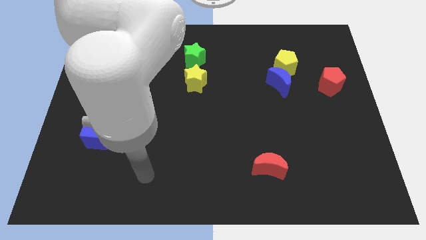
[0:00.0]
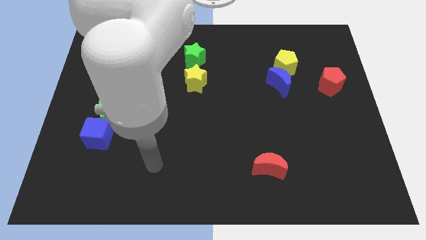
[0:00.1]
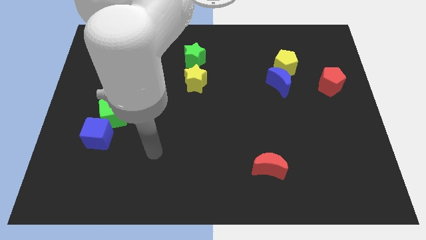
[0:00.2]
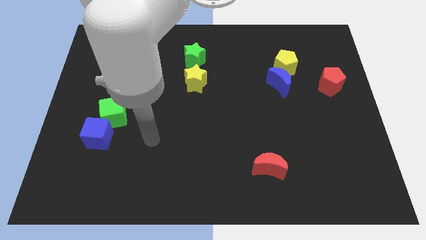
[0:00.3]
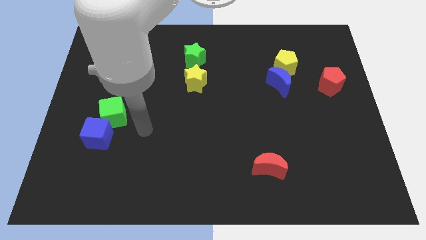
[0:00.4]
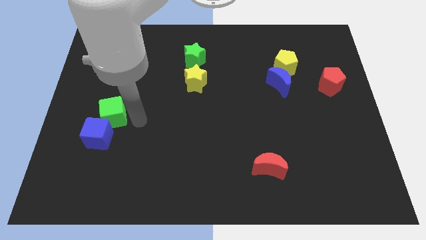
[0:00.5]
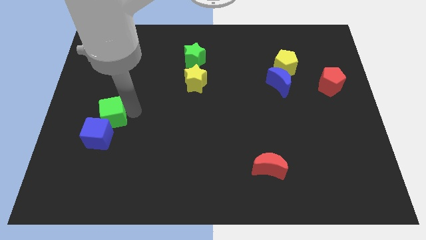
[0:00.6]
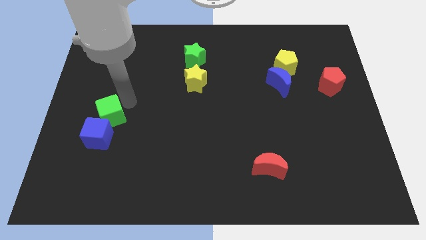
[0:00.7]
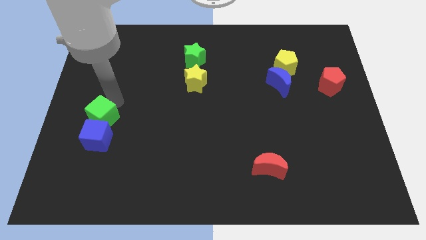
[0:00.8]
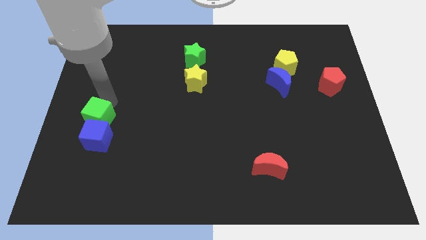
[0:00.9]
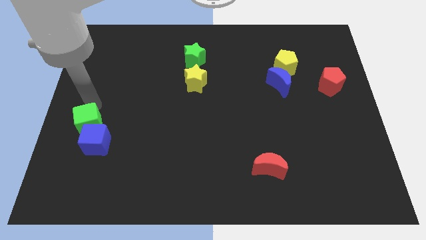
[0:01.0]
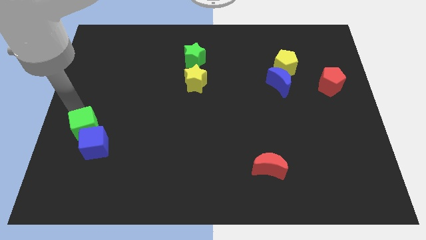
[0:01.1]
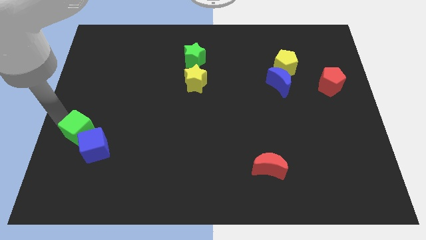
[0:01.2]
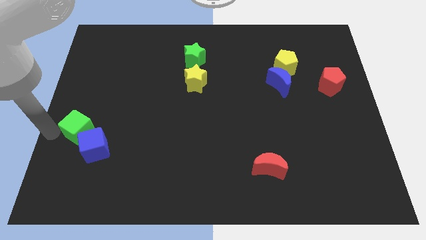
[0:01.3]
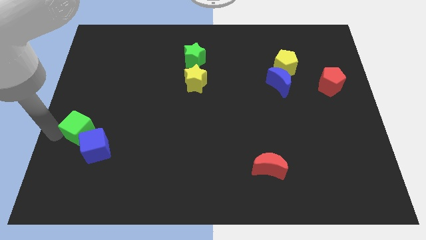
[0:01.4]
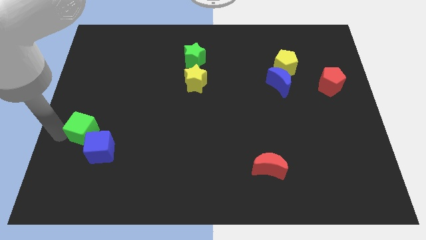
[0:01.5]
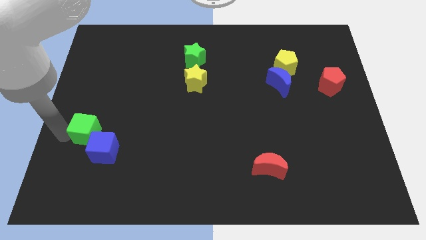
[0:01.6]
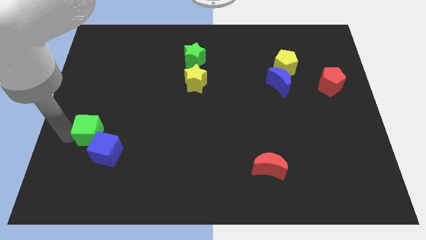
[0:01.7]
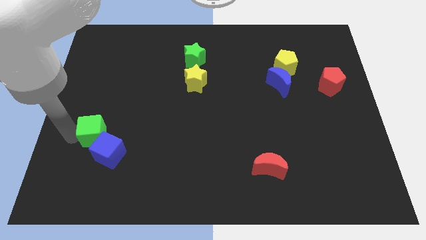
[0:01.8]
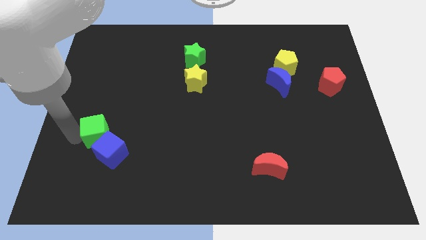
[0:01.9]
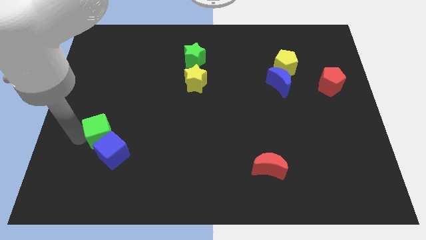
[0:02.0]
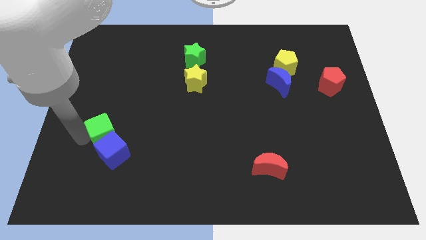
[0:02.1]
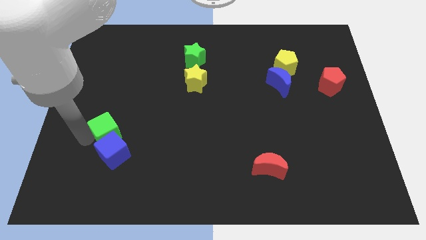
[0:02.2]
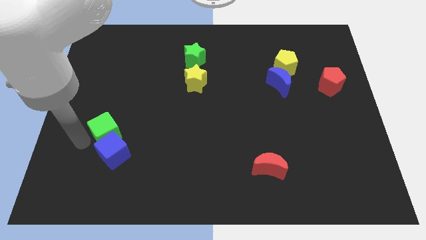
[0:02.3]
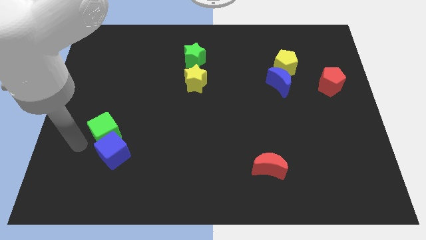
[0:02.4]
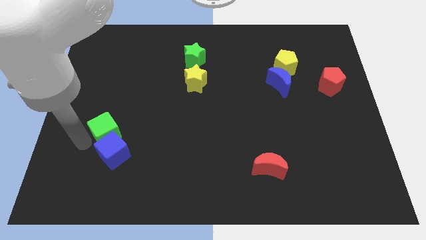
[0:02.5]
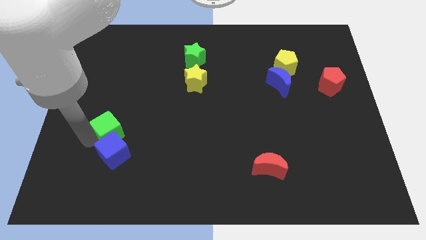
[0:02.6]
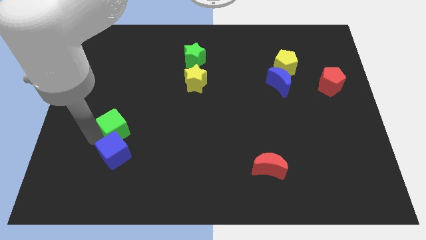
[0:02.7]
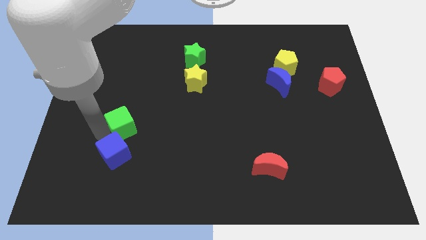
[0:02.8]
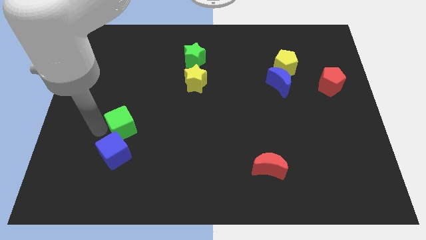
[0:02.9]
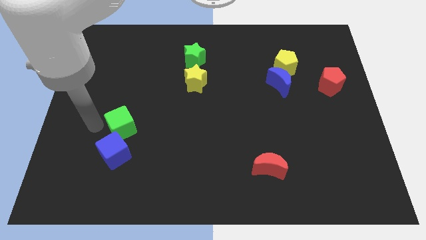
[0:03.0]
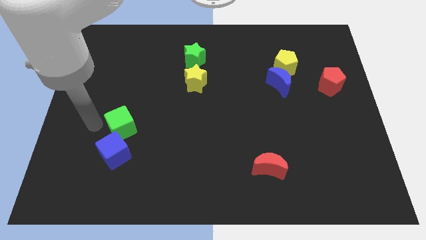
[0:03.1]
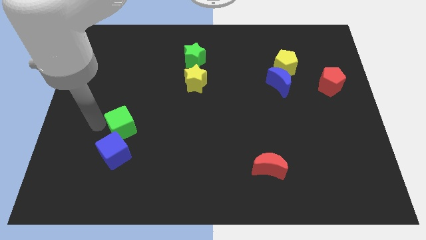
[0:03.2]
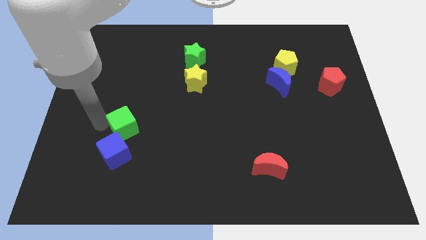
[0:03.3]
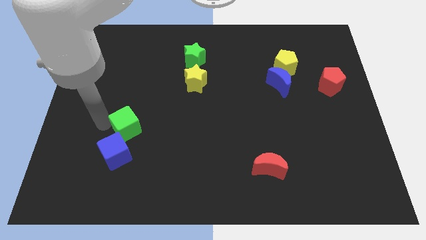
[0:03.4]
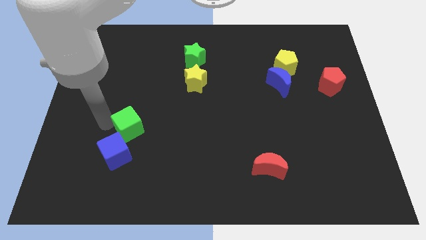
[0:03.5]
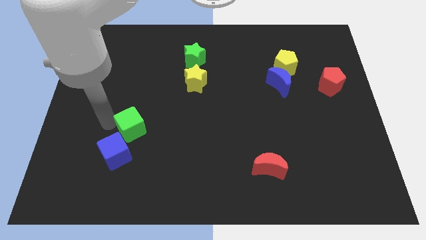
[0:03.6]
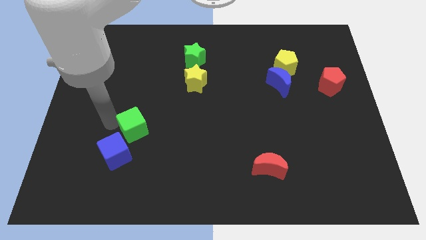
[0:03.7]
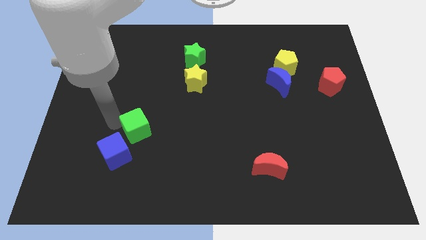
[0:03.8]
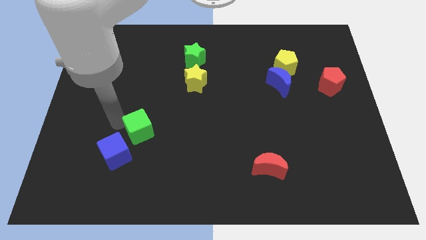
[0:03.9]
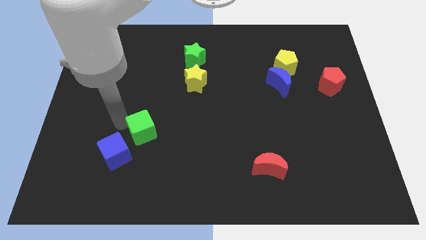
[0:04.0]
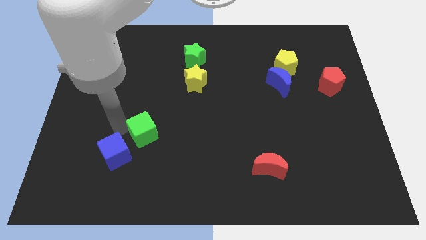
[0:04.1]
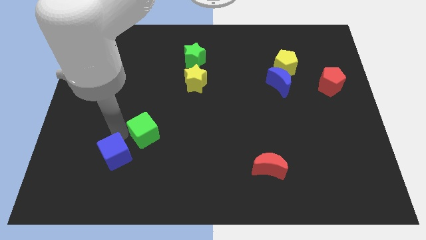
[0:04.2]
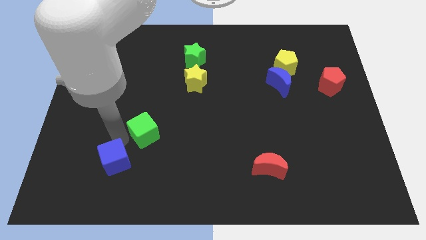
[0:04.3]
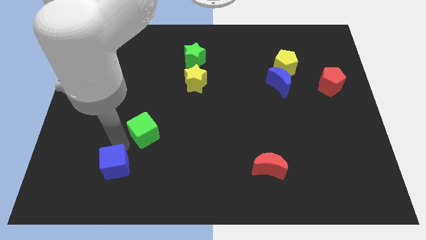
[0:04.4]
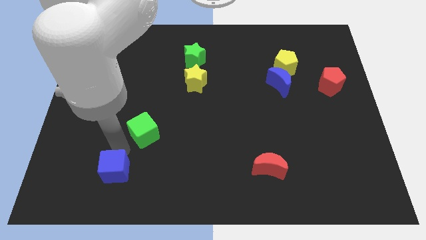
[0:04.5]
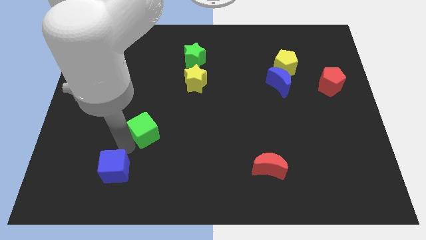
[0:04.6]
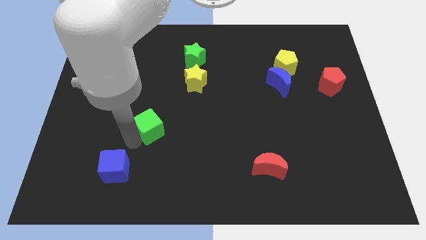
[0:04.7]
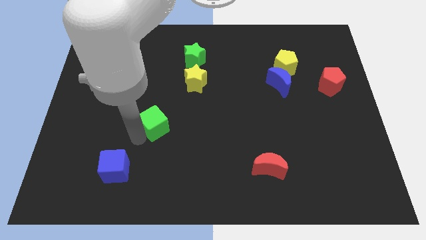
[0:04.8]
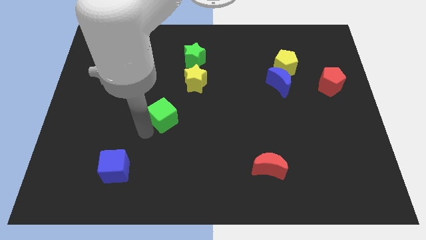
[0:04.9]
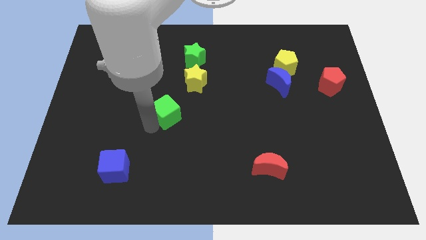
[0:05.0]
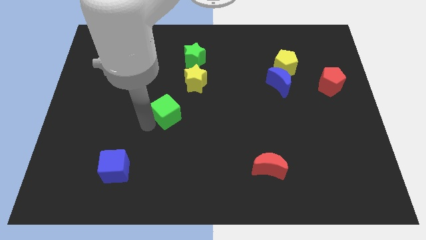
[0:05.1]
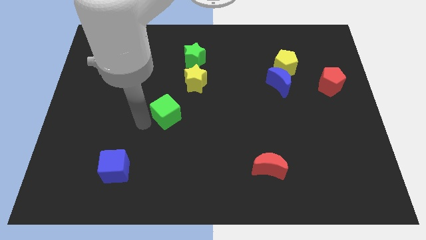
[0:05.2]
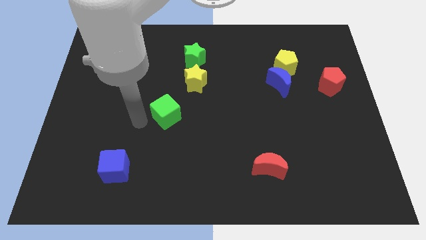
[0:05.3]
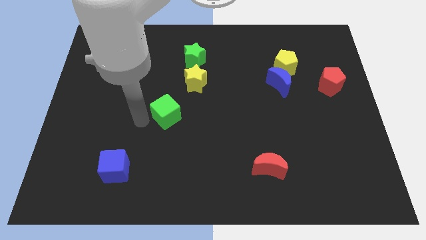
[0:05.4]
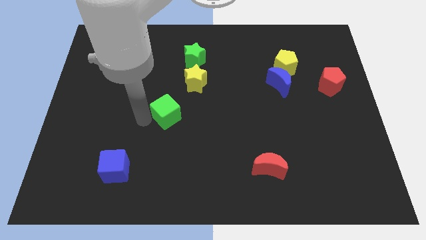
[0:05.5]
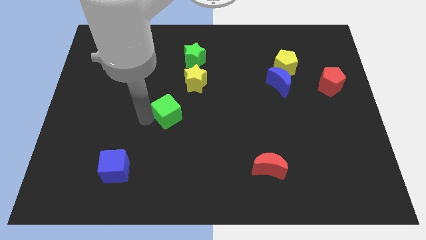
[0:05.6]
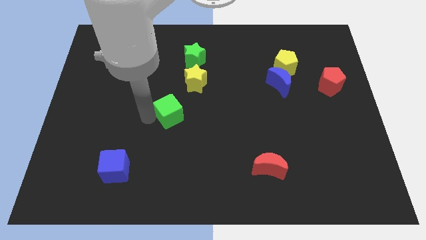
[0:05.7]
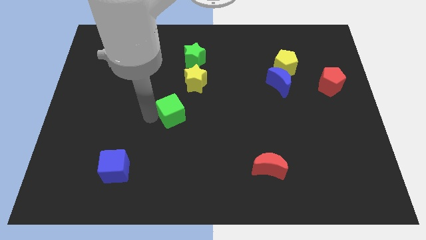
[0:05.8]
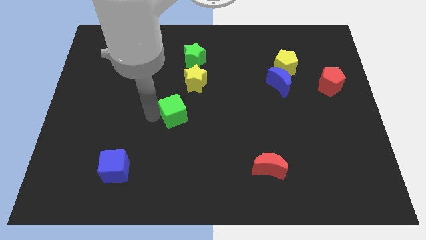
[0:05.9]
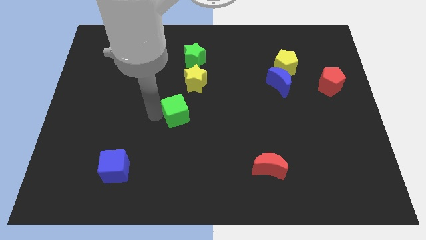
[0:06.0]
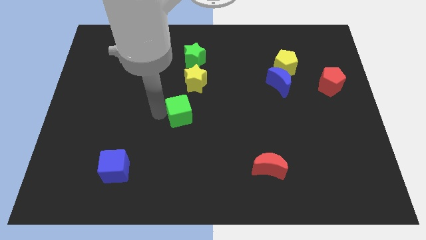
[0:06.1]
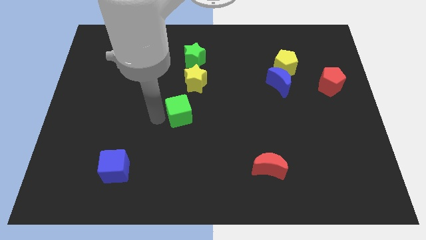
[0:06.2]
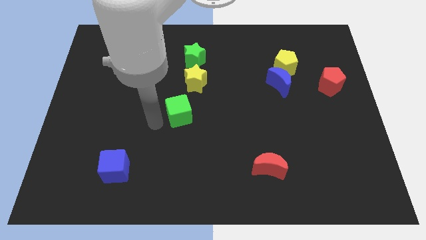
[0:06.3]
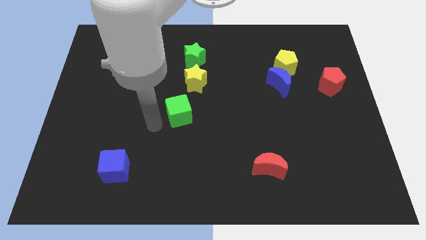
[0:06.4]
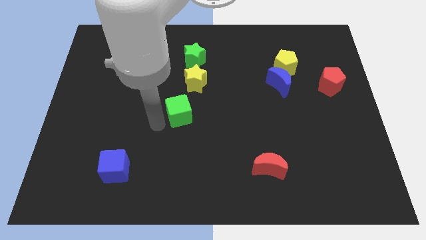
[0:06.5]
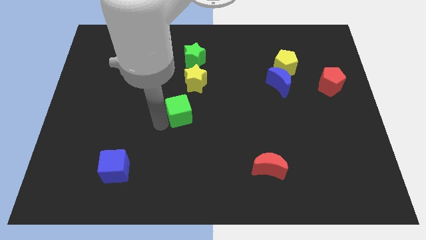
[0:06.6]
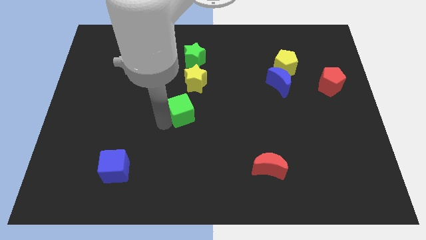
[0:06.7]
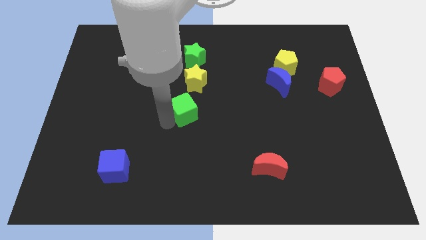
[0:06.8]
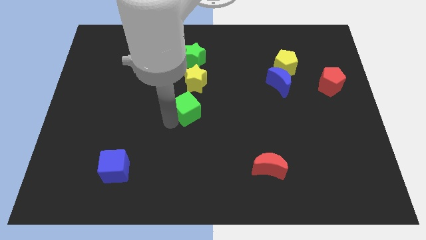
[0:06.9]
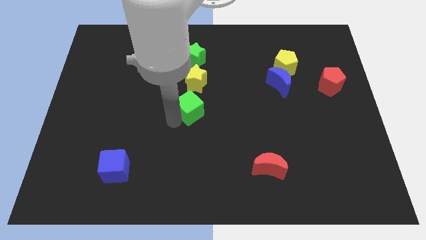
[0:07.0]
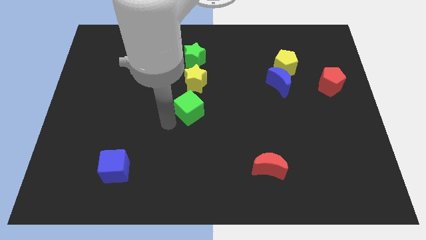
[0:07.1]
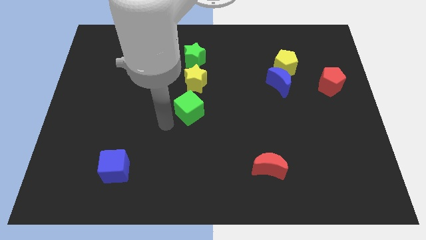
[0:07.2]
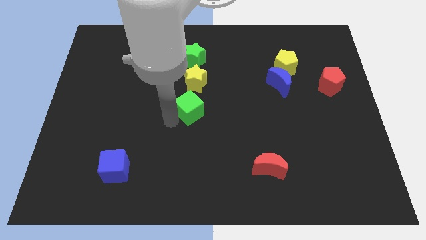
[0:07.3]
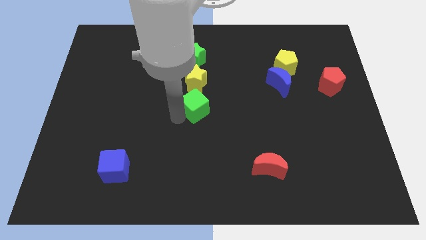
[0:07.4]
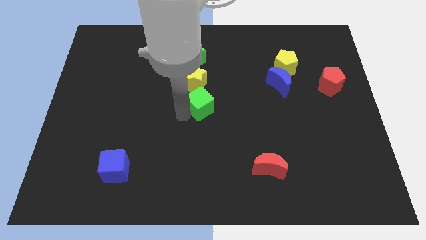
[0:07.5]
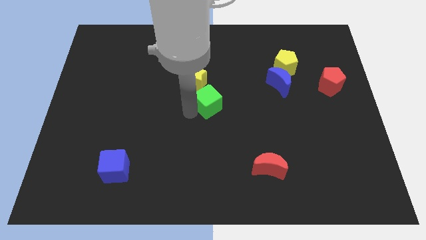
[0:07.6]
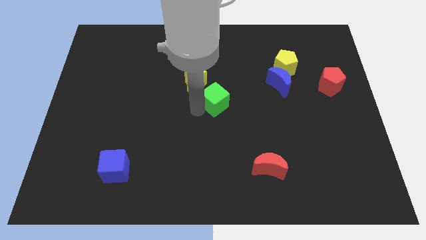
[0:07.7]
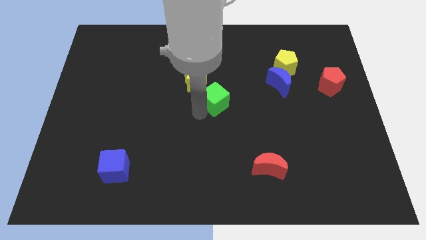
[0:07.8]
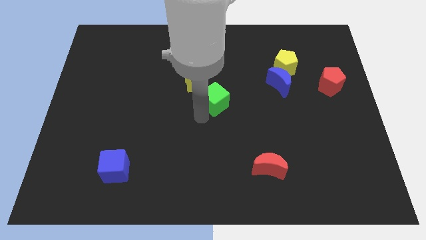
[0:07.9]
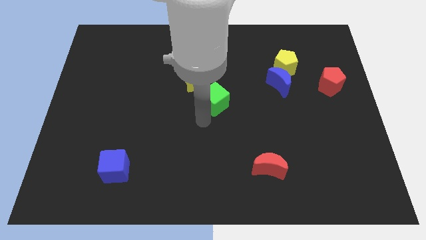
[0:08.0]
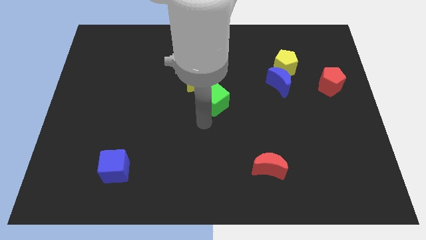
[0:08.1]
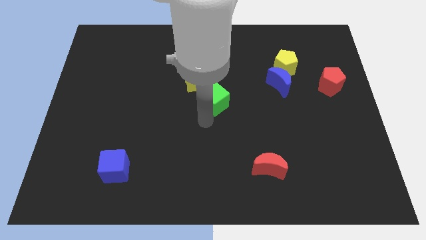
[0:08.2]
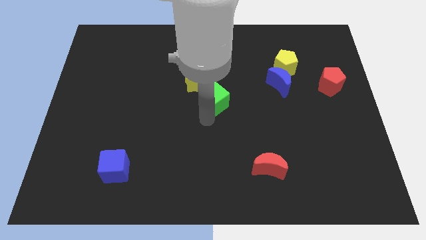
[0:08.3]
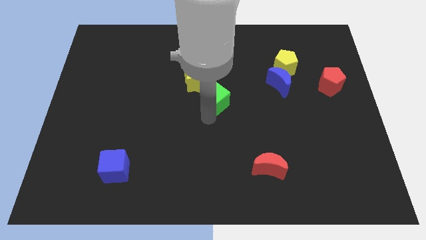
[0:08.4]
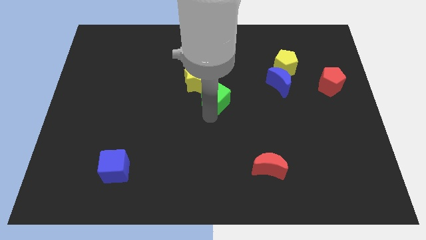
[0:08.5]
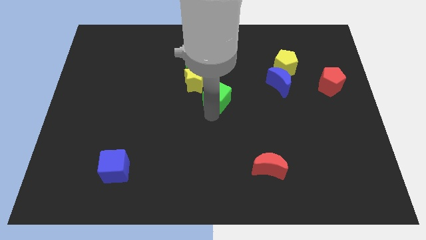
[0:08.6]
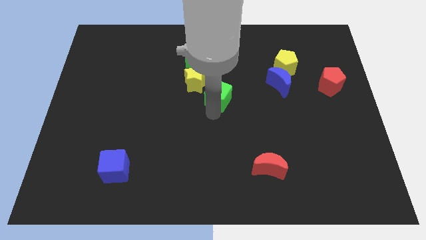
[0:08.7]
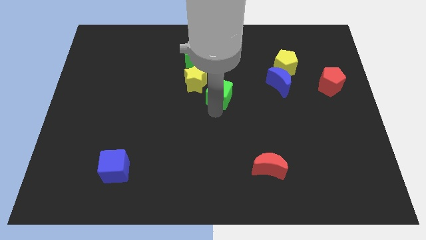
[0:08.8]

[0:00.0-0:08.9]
push the green cube to the right of the yellow star
